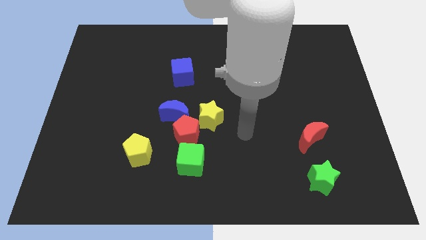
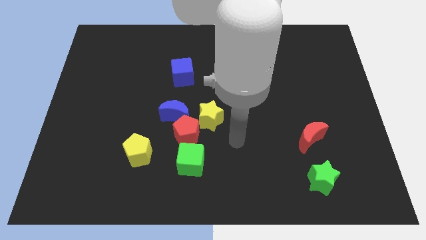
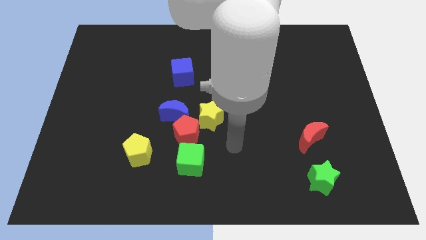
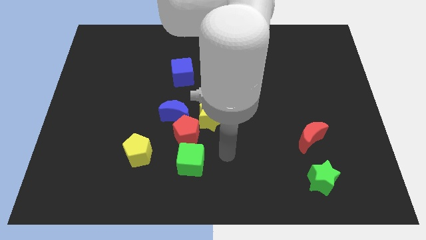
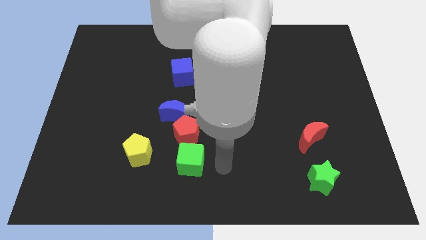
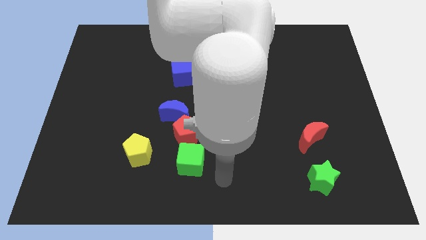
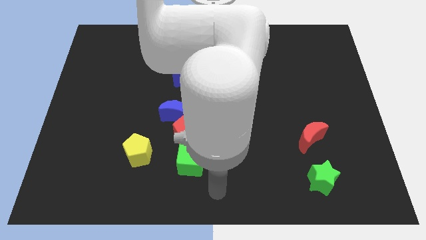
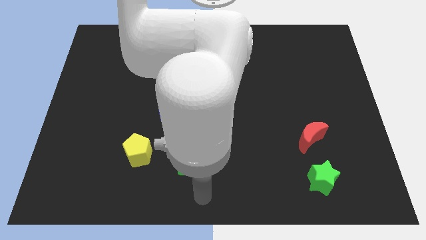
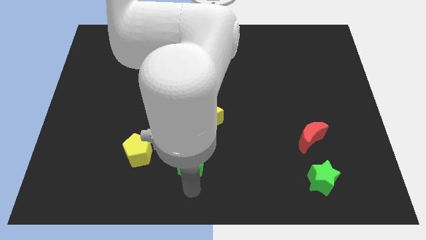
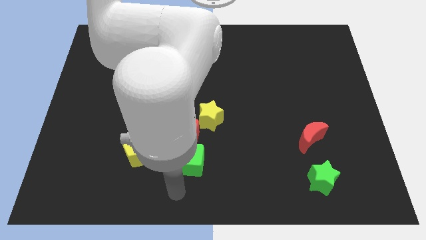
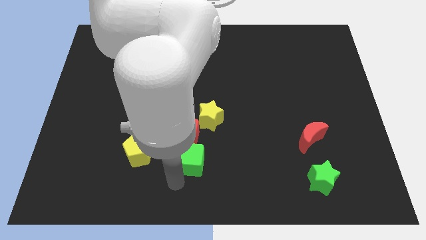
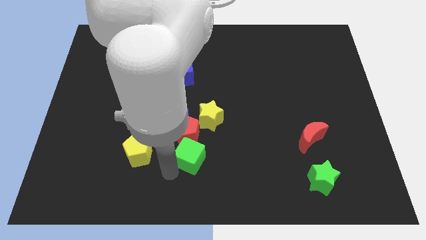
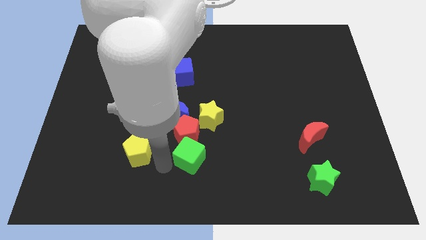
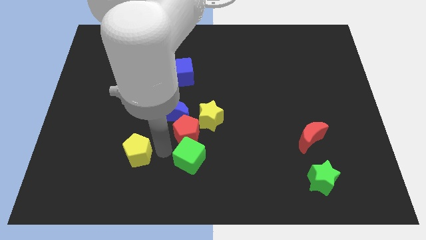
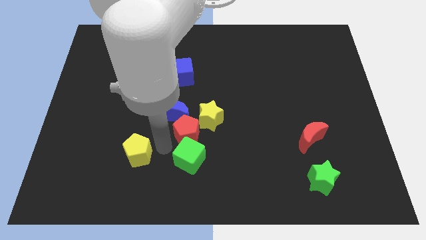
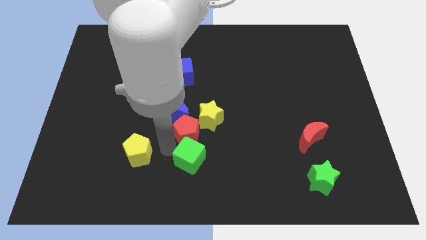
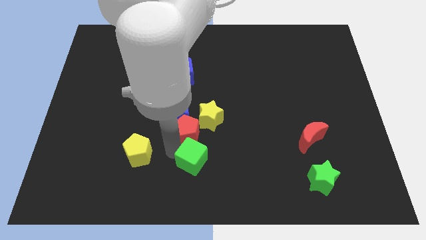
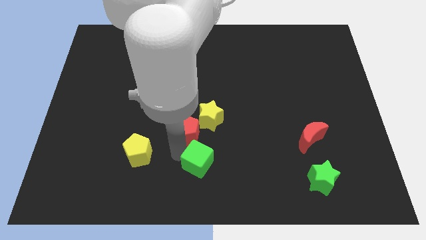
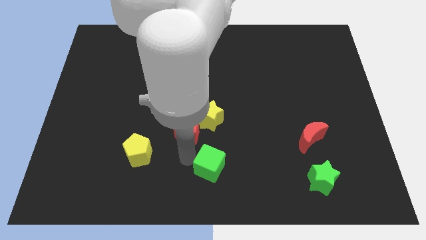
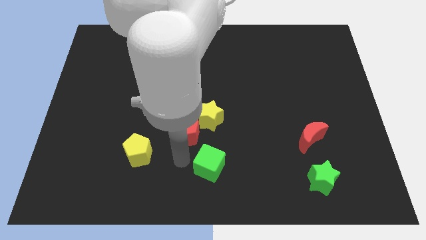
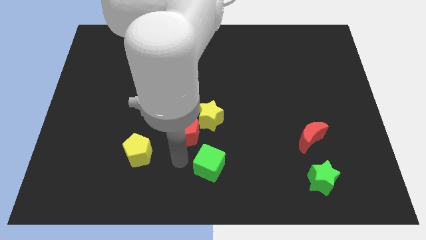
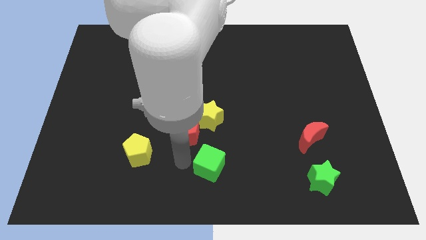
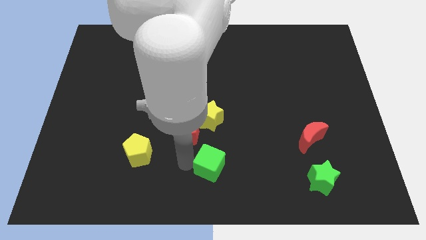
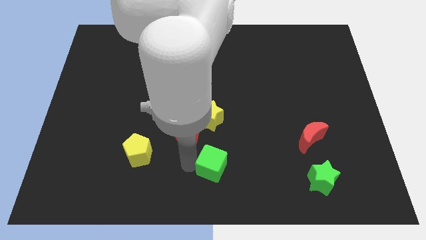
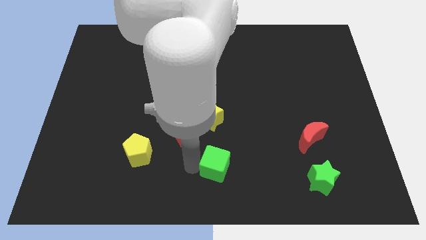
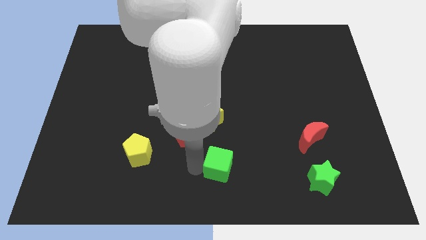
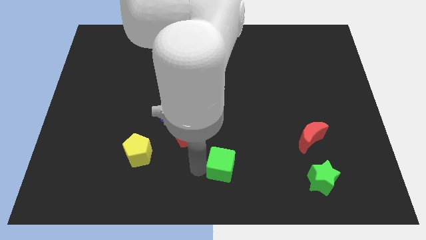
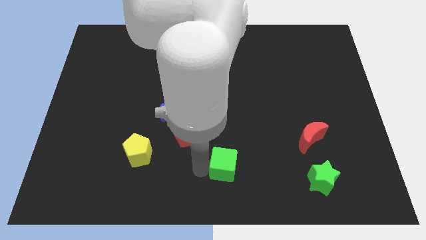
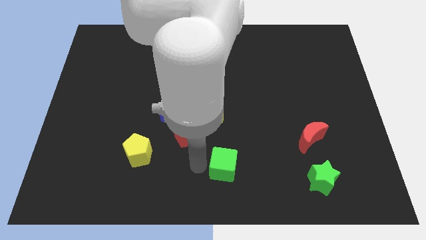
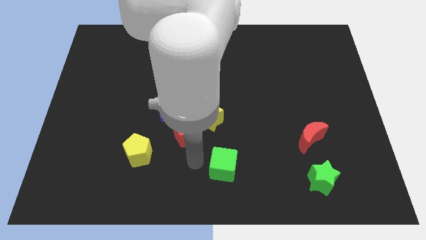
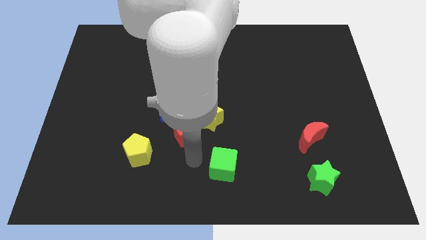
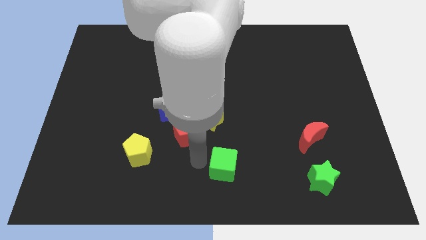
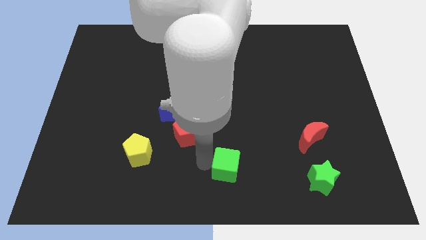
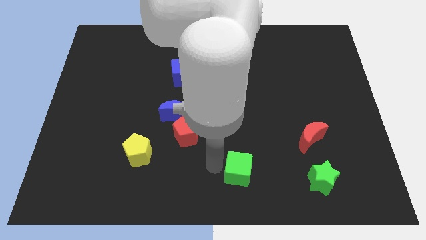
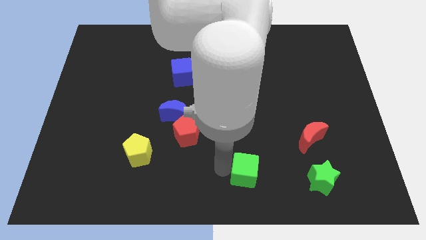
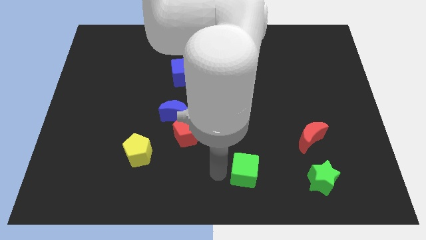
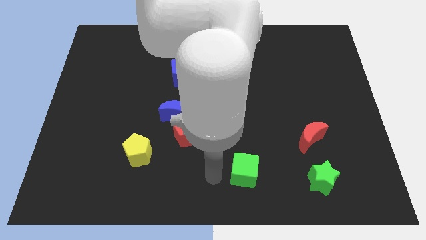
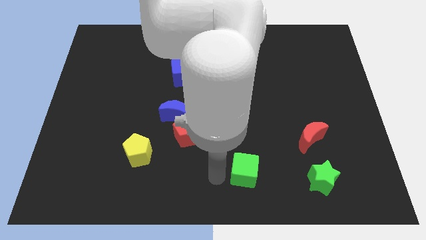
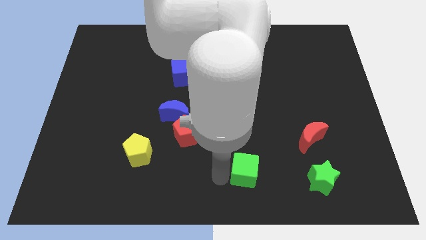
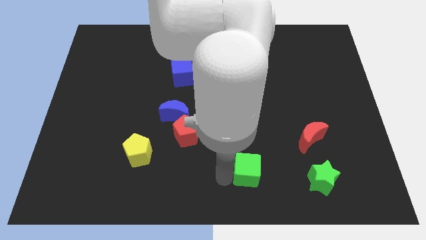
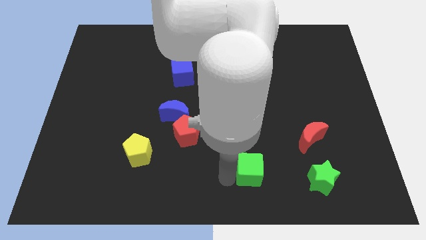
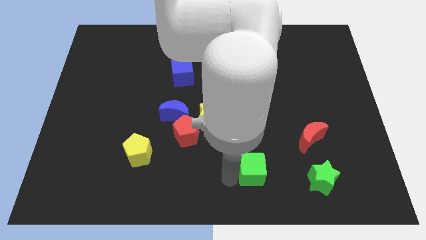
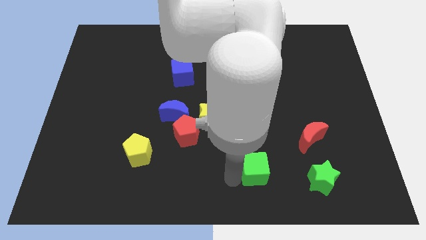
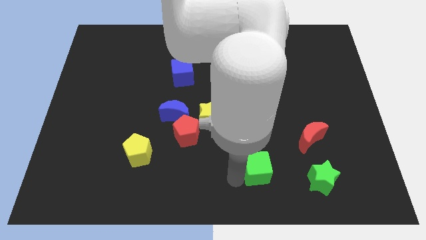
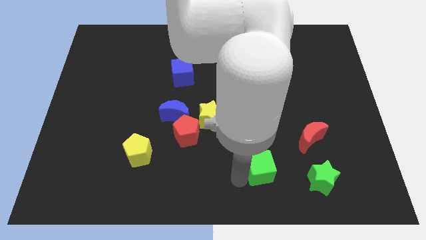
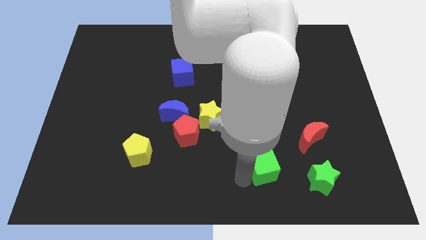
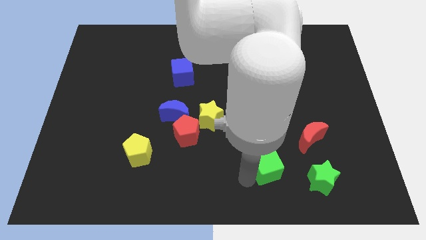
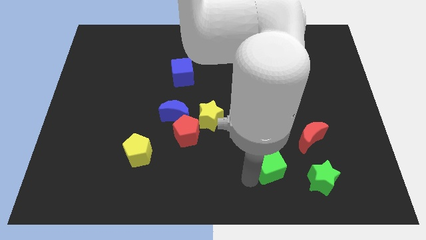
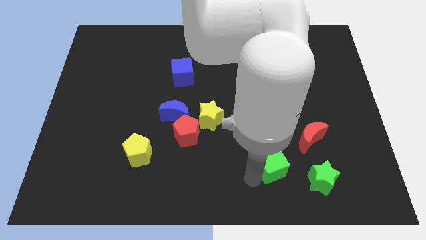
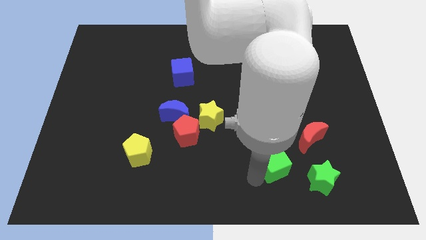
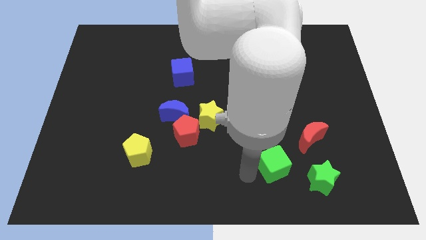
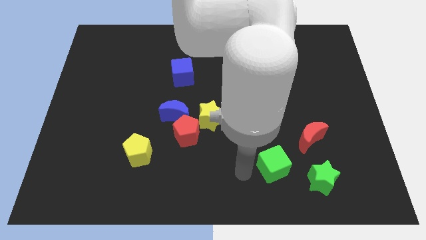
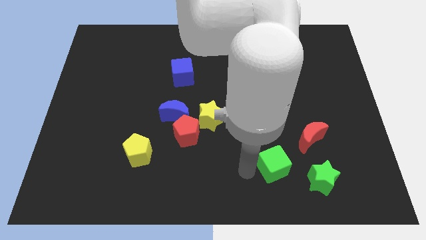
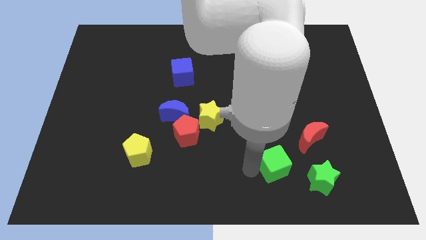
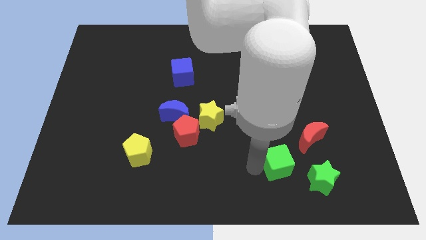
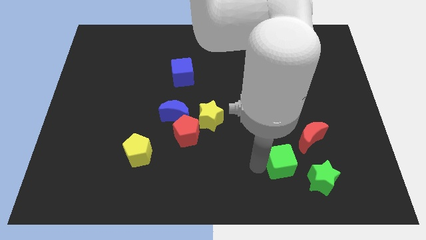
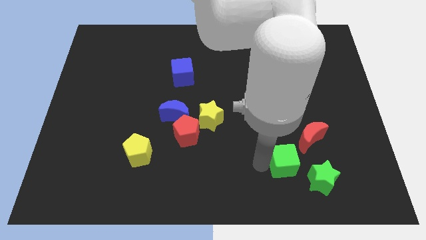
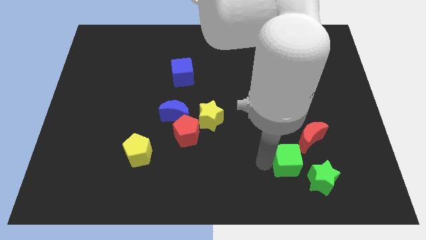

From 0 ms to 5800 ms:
push the green cube to the right

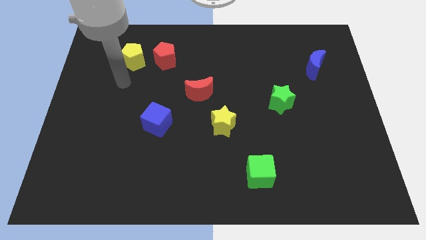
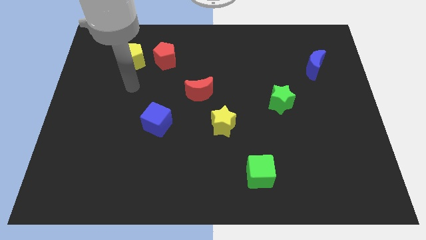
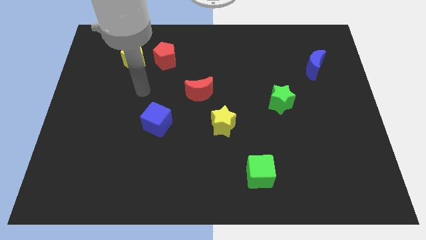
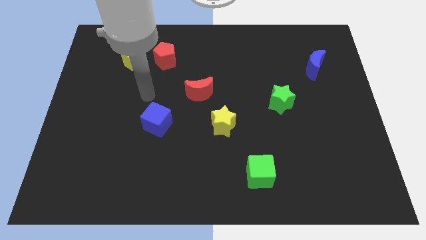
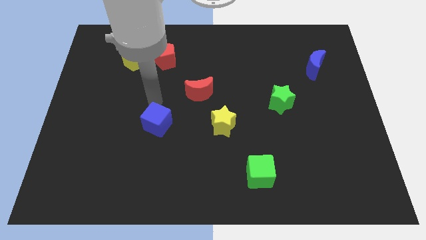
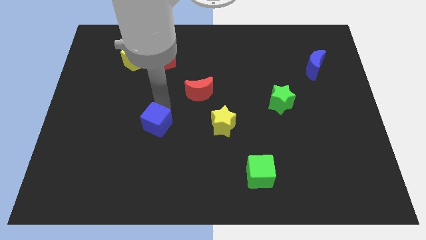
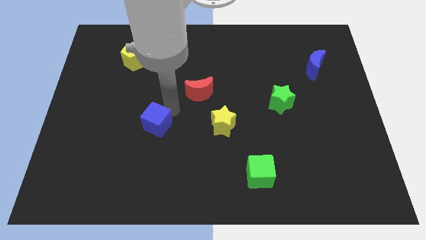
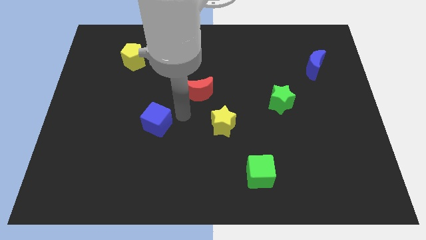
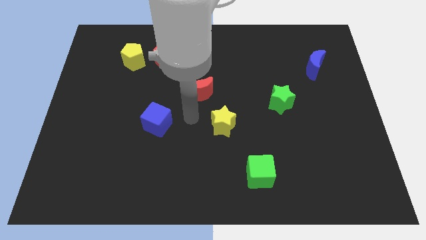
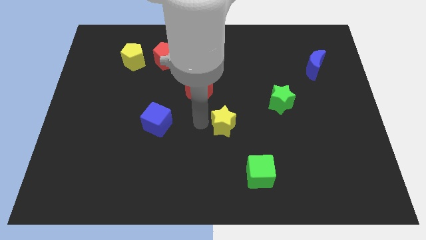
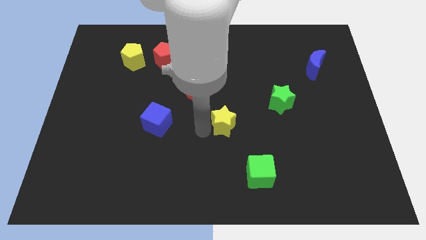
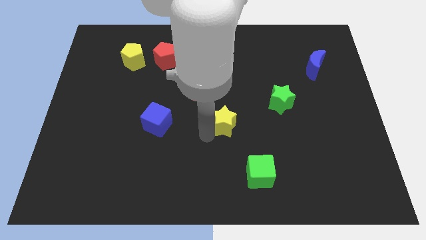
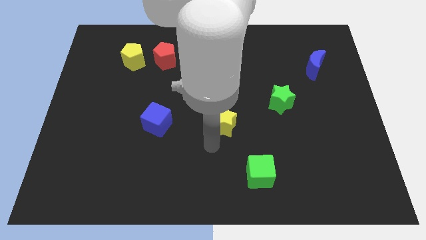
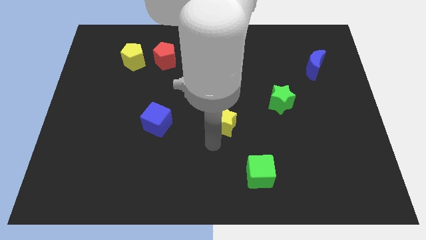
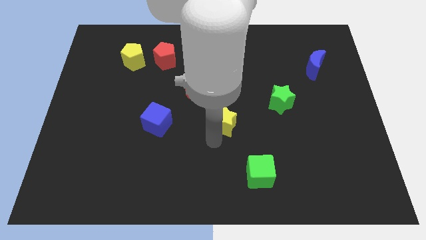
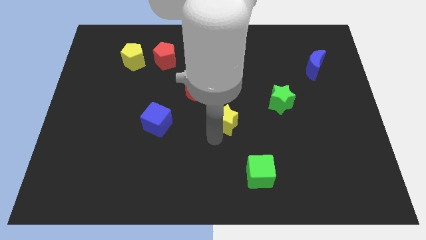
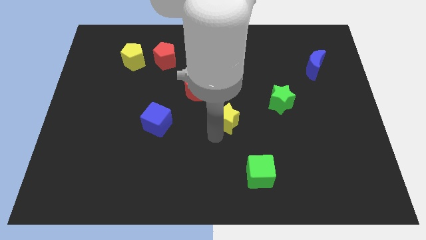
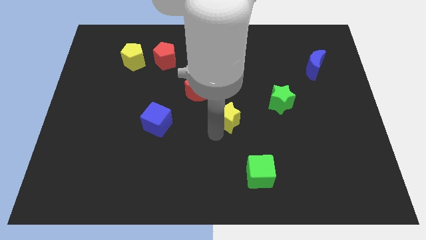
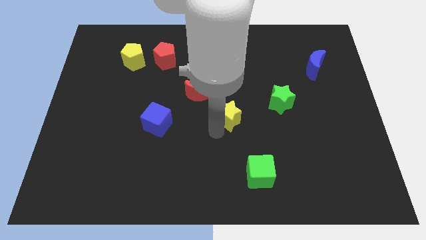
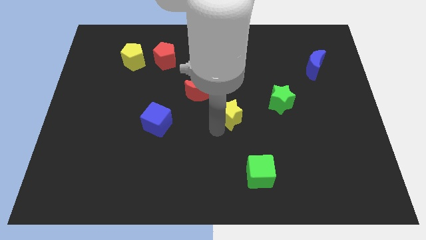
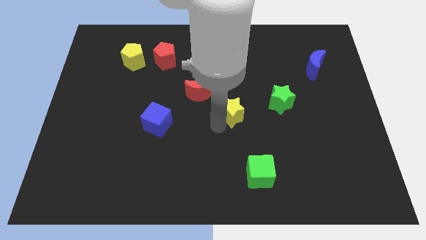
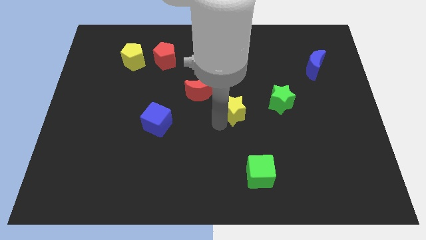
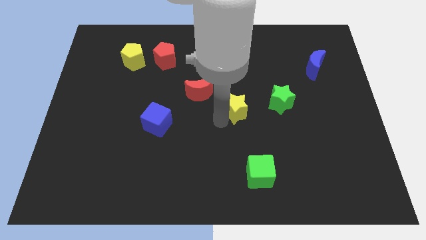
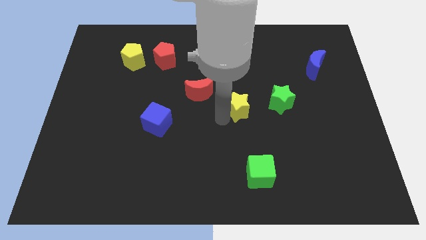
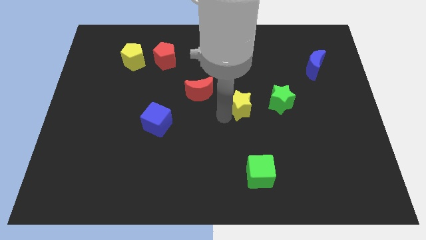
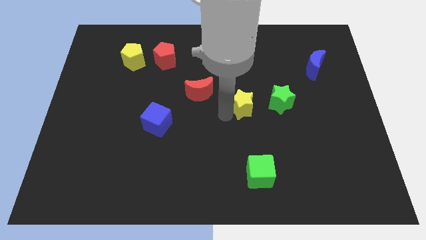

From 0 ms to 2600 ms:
move the yellow star a bit upwards and right
